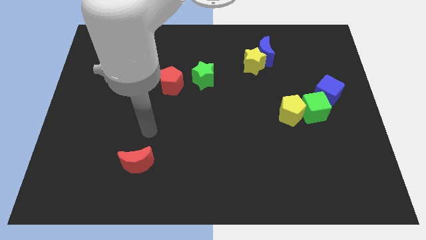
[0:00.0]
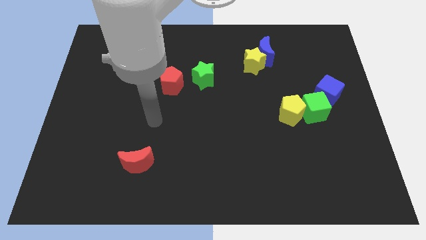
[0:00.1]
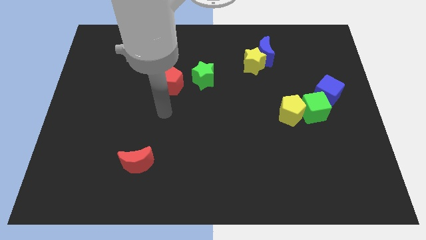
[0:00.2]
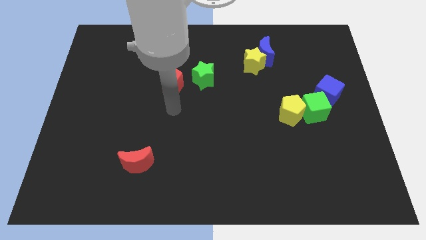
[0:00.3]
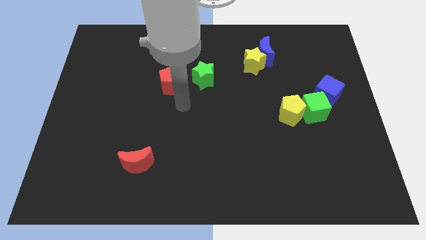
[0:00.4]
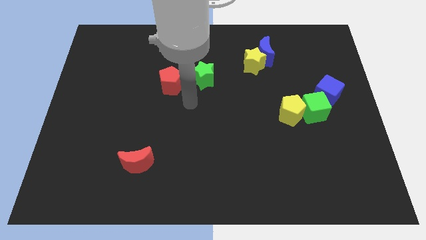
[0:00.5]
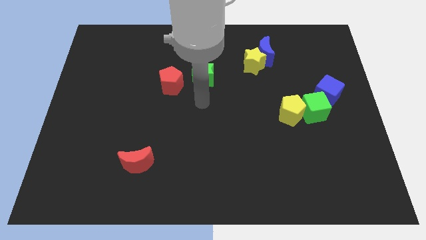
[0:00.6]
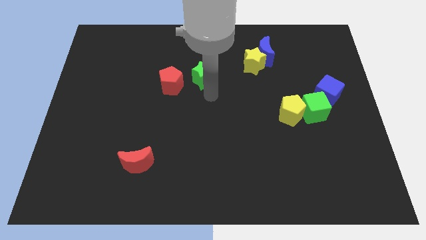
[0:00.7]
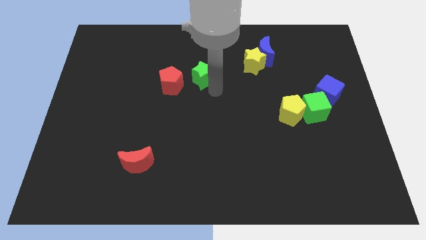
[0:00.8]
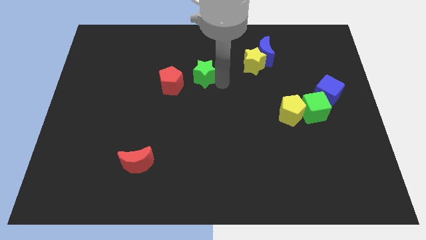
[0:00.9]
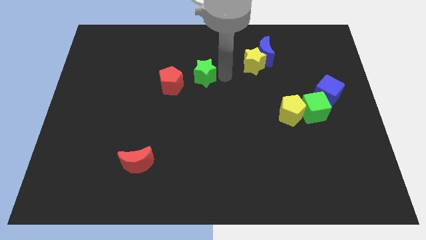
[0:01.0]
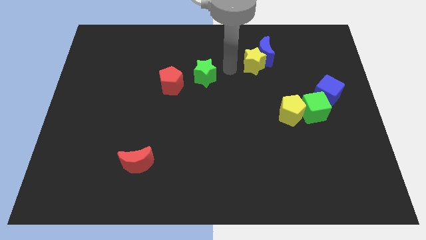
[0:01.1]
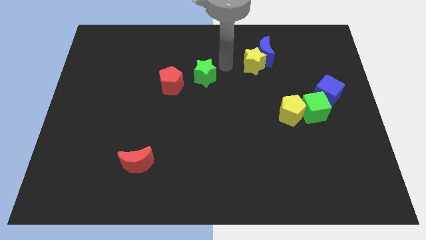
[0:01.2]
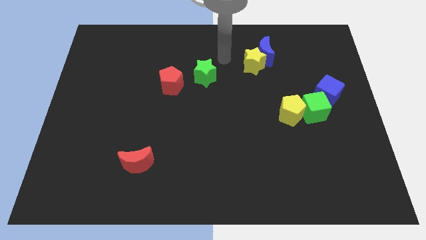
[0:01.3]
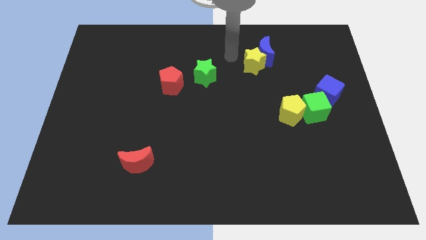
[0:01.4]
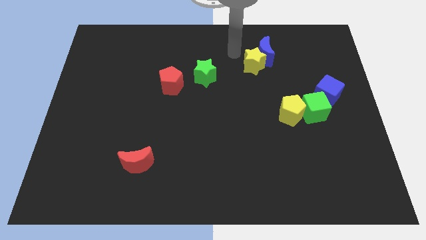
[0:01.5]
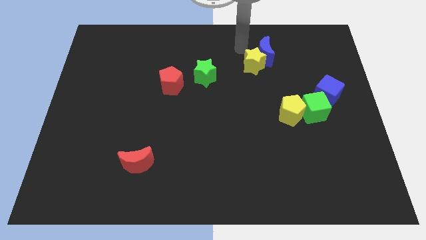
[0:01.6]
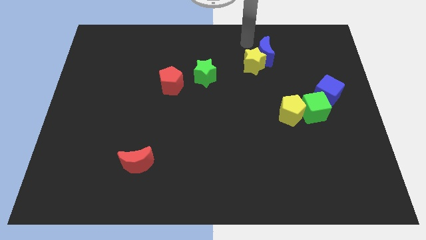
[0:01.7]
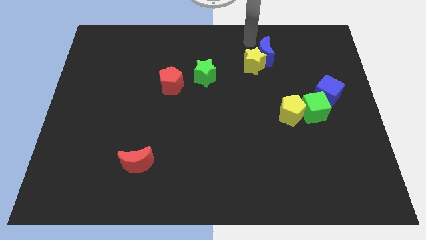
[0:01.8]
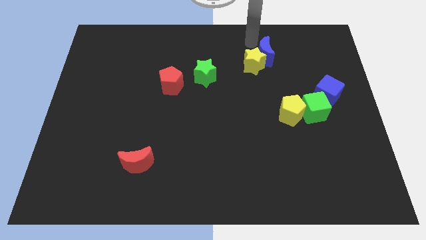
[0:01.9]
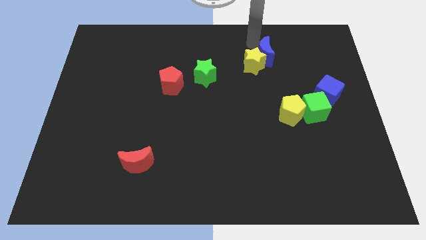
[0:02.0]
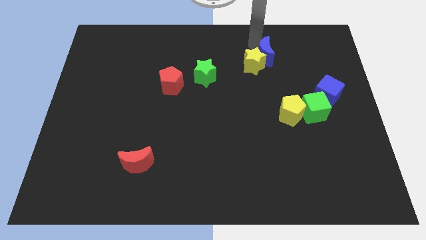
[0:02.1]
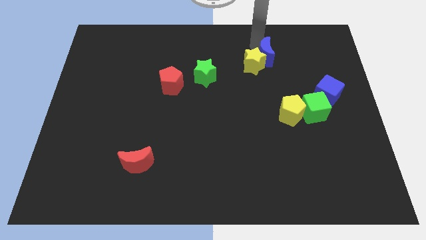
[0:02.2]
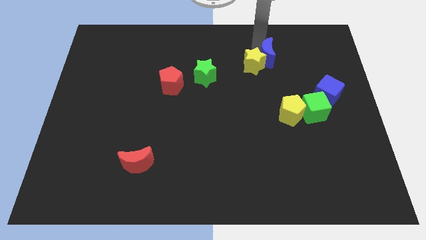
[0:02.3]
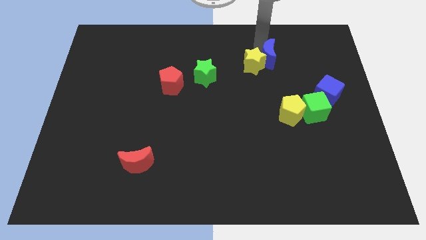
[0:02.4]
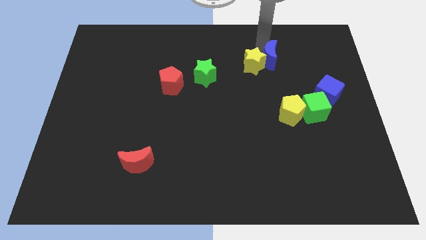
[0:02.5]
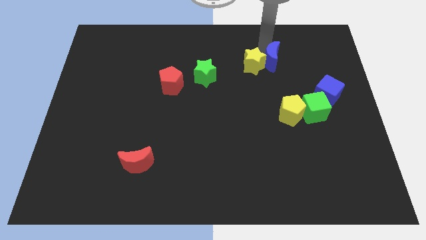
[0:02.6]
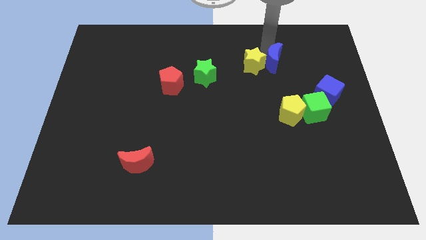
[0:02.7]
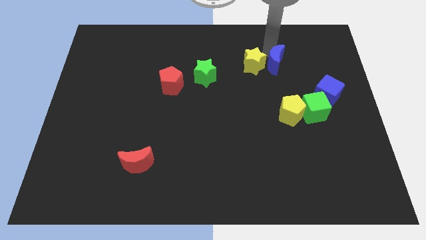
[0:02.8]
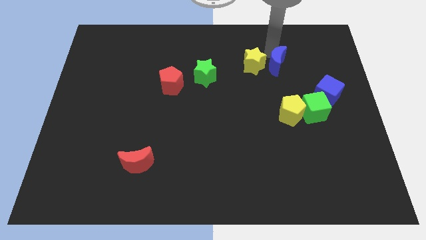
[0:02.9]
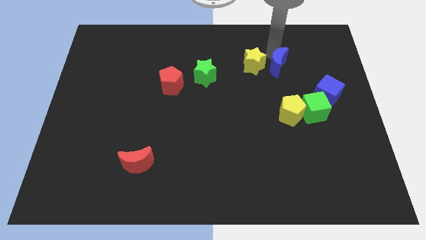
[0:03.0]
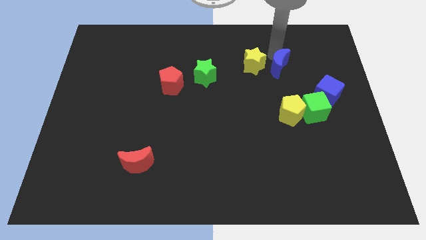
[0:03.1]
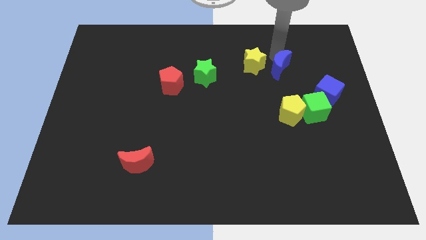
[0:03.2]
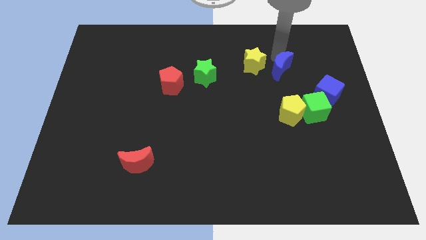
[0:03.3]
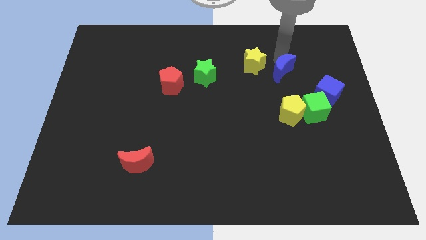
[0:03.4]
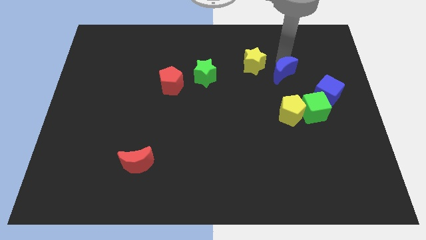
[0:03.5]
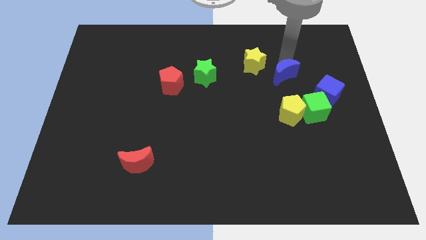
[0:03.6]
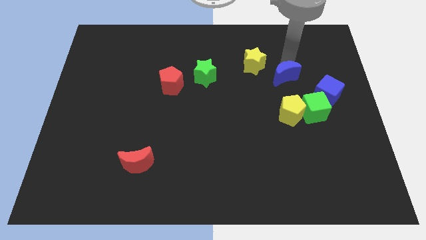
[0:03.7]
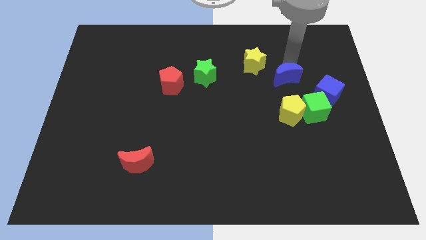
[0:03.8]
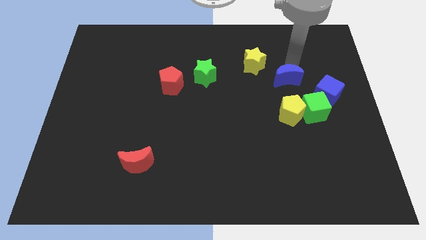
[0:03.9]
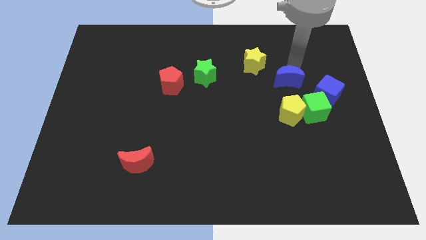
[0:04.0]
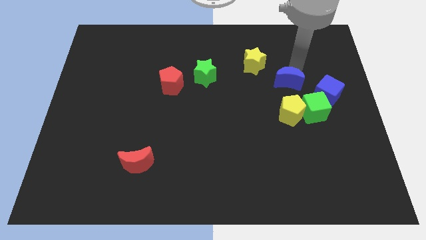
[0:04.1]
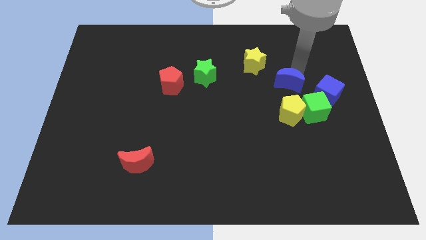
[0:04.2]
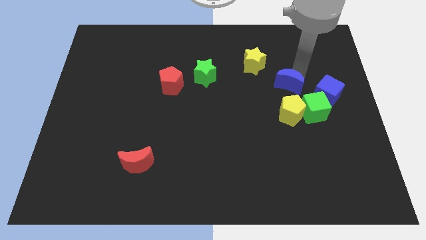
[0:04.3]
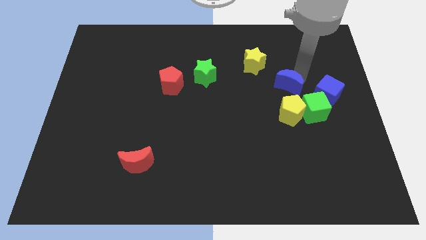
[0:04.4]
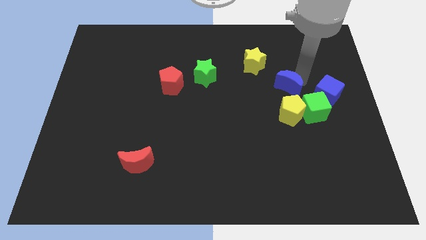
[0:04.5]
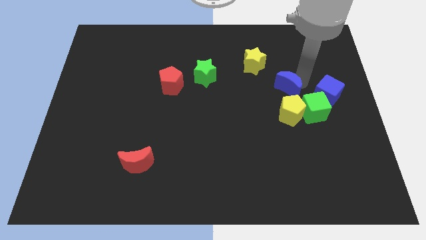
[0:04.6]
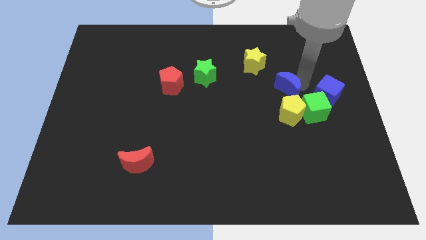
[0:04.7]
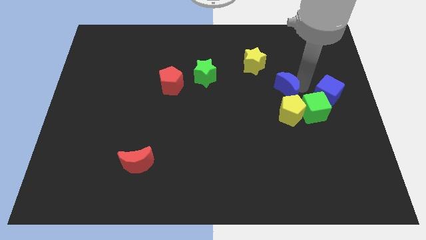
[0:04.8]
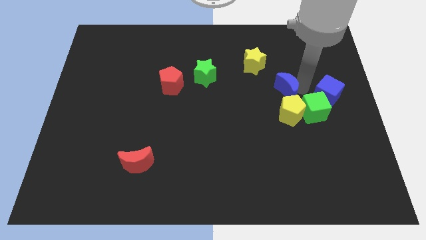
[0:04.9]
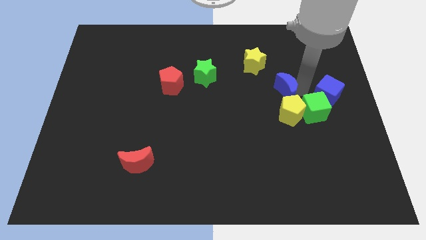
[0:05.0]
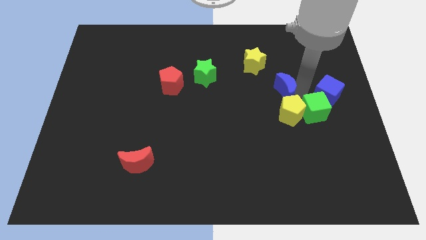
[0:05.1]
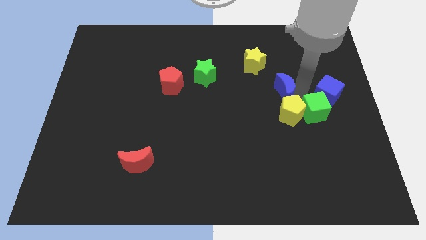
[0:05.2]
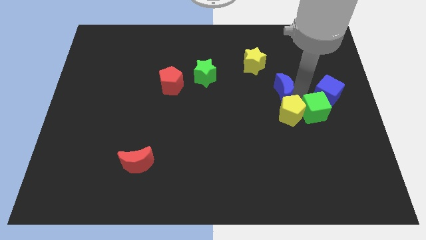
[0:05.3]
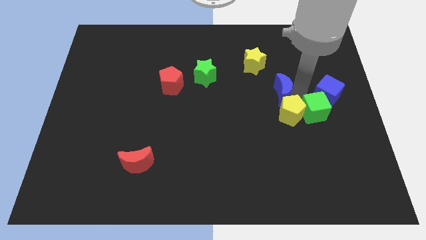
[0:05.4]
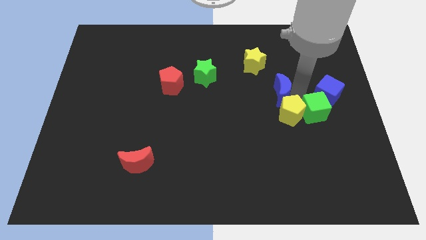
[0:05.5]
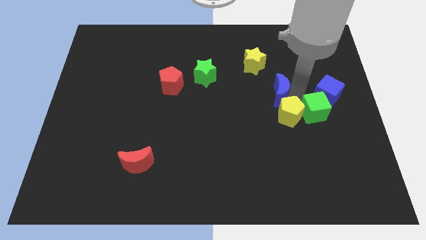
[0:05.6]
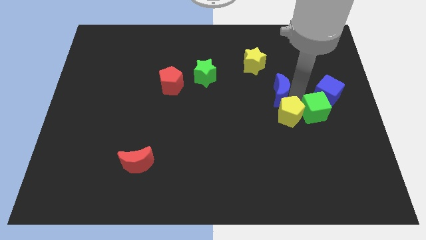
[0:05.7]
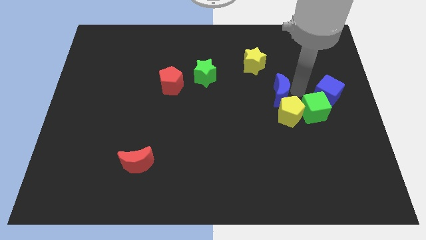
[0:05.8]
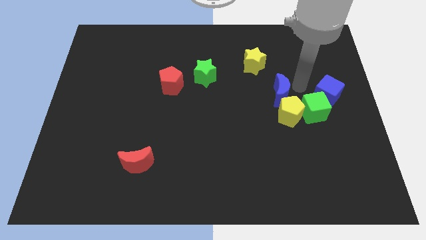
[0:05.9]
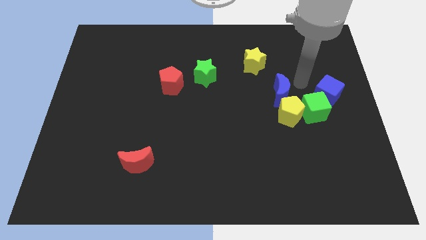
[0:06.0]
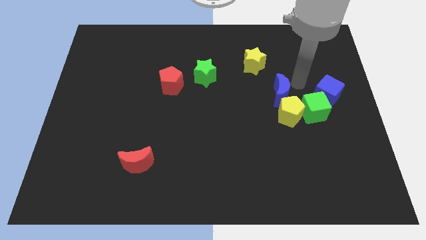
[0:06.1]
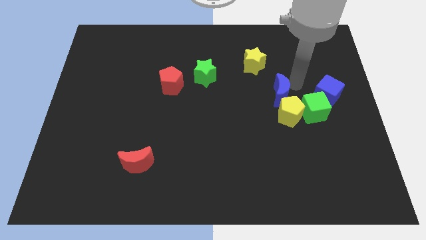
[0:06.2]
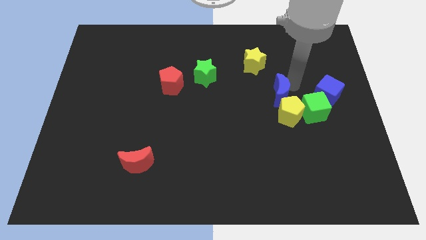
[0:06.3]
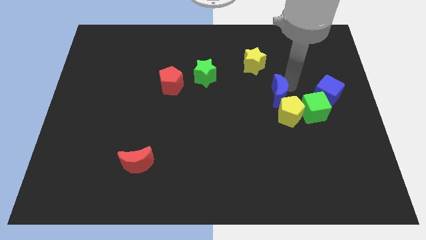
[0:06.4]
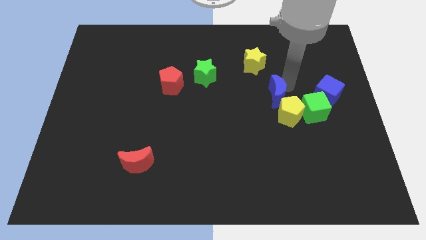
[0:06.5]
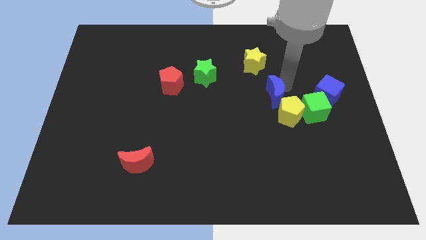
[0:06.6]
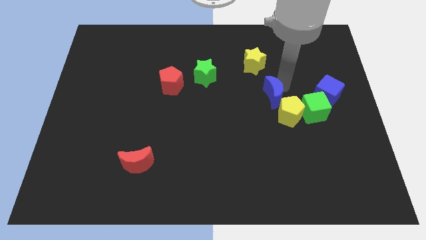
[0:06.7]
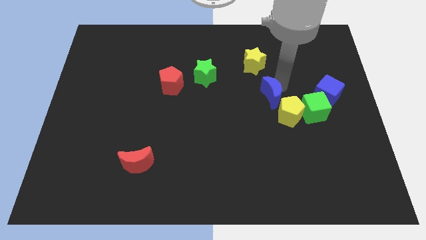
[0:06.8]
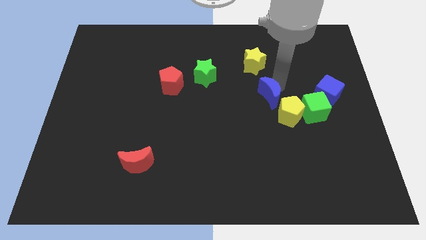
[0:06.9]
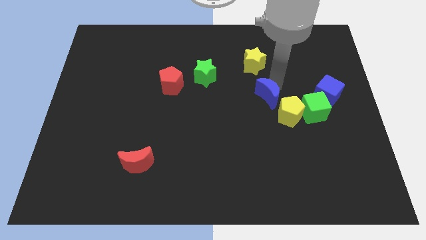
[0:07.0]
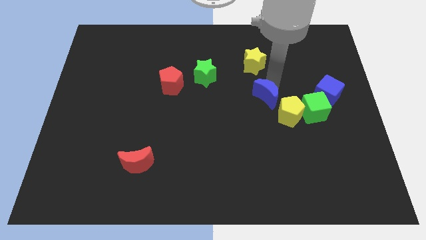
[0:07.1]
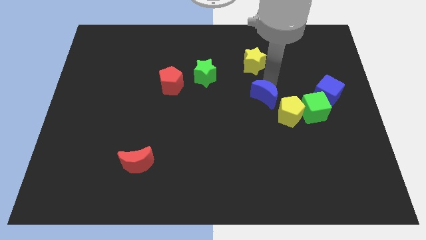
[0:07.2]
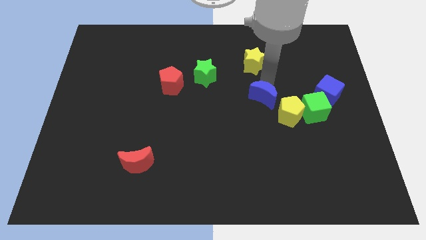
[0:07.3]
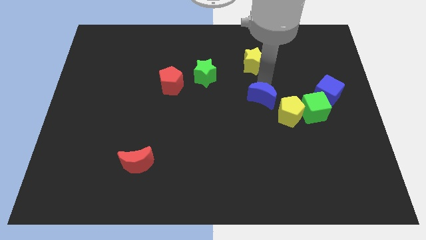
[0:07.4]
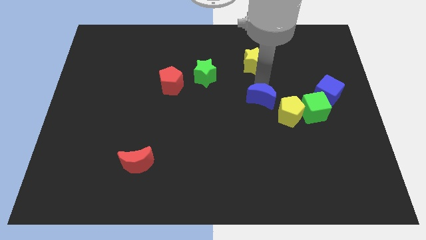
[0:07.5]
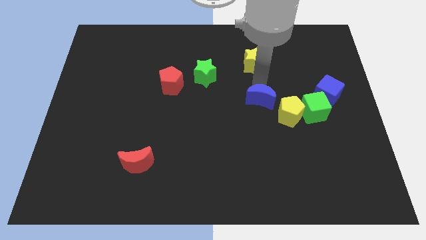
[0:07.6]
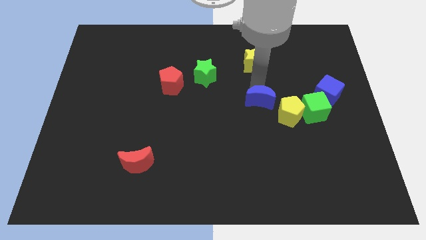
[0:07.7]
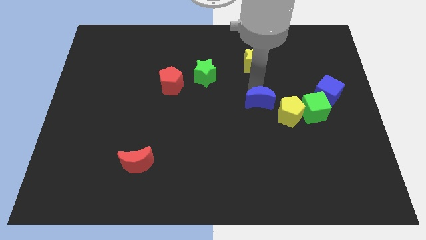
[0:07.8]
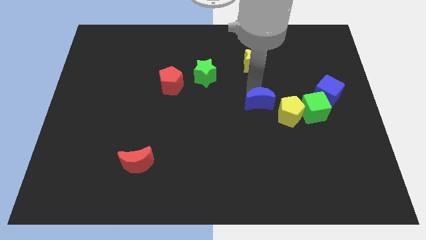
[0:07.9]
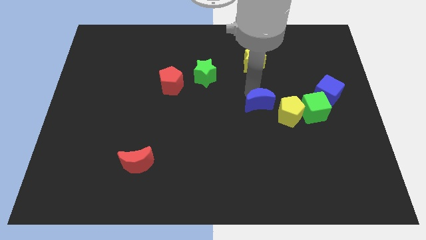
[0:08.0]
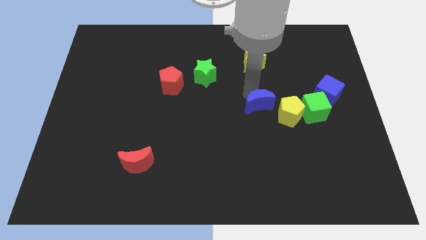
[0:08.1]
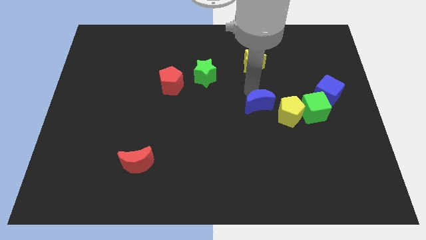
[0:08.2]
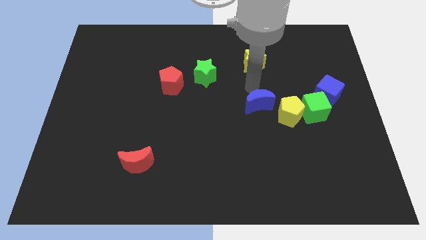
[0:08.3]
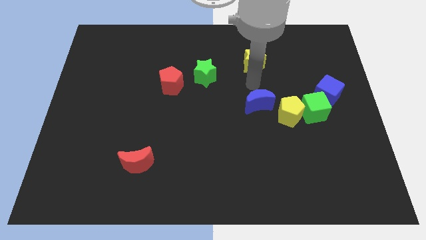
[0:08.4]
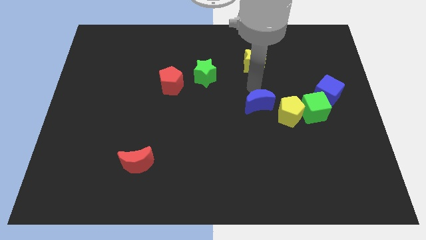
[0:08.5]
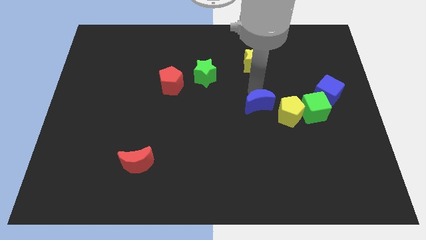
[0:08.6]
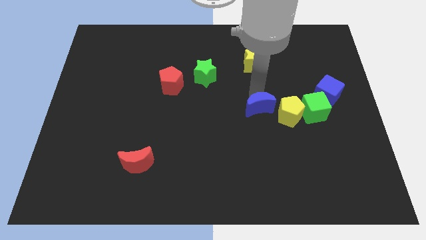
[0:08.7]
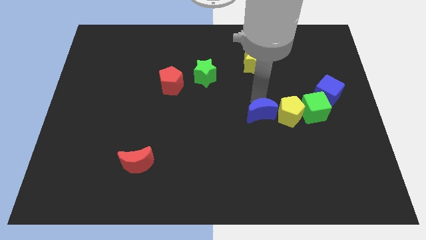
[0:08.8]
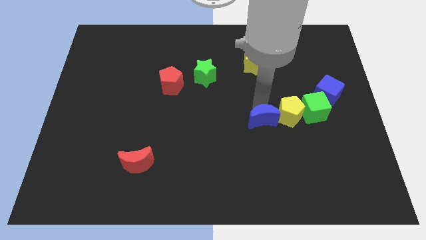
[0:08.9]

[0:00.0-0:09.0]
push the blue moon downwards
